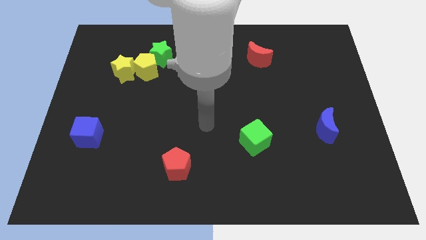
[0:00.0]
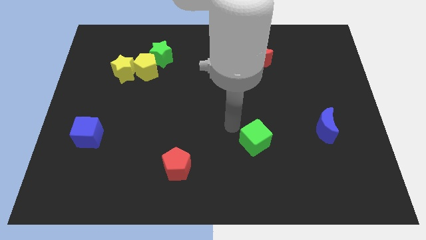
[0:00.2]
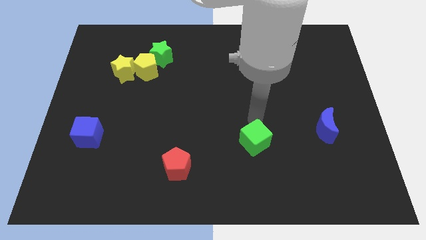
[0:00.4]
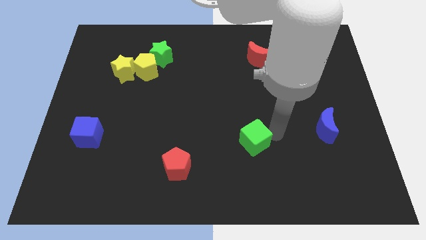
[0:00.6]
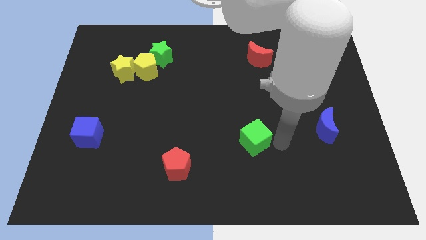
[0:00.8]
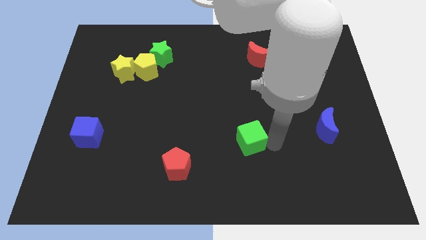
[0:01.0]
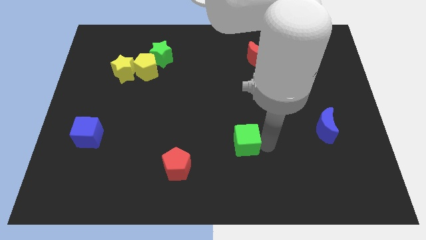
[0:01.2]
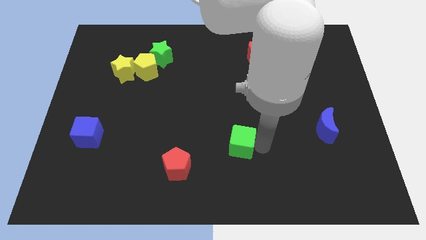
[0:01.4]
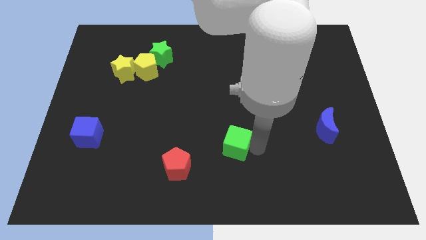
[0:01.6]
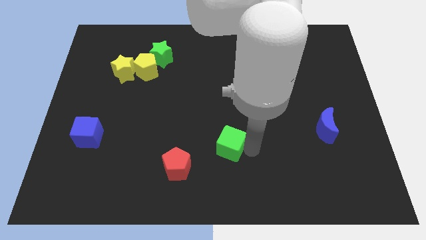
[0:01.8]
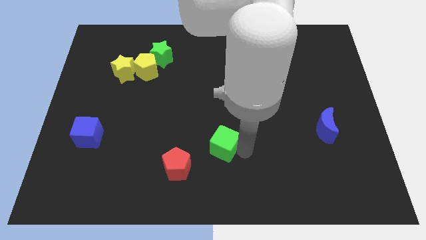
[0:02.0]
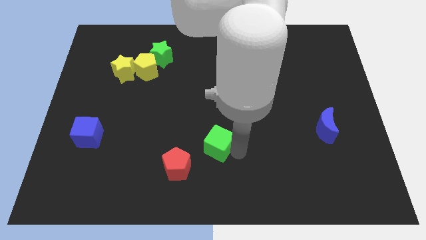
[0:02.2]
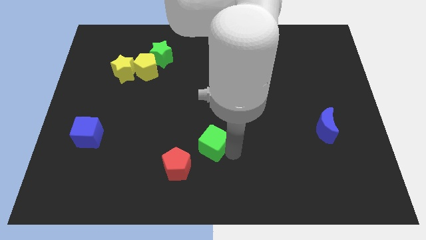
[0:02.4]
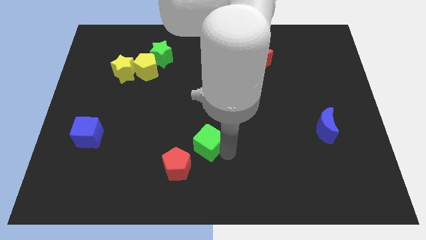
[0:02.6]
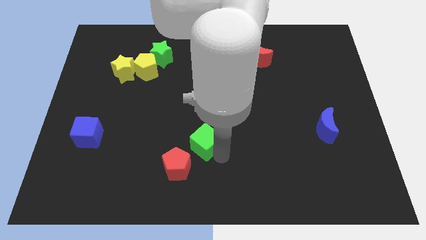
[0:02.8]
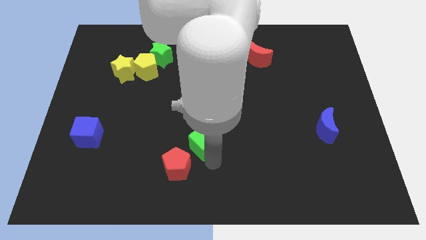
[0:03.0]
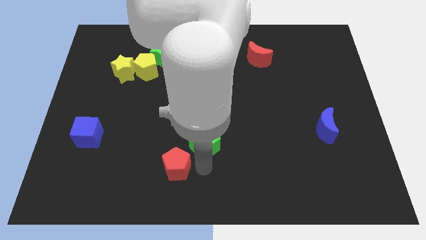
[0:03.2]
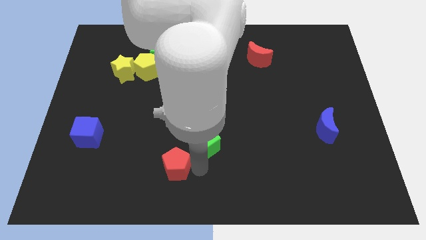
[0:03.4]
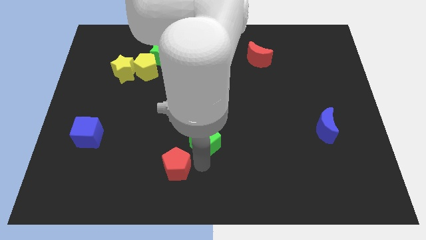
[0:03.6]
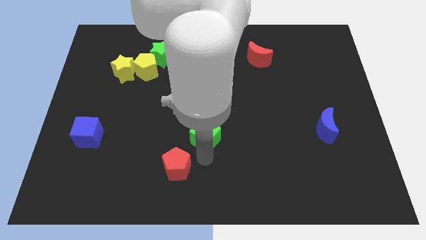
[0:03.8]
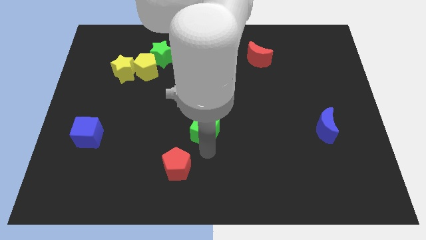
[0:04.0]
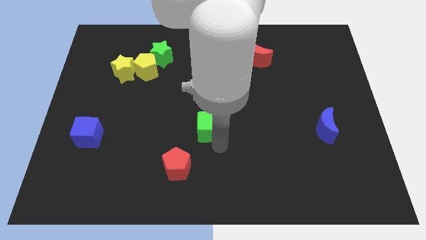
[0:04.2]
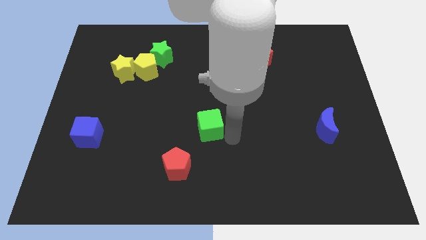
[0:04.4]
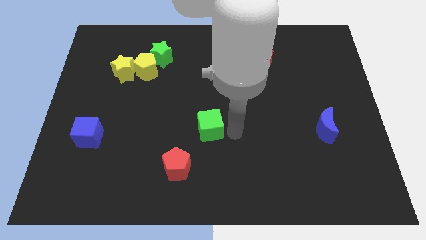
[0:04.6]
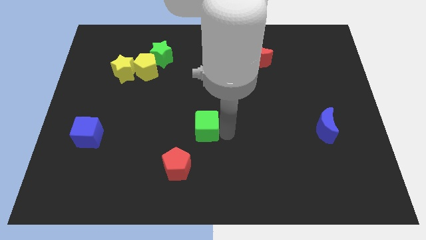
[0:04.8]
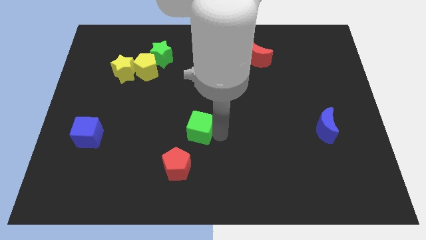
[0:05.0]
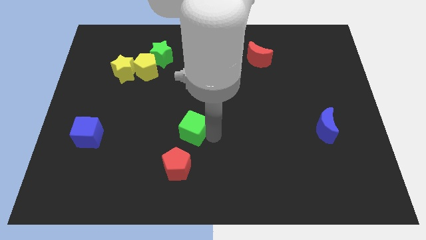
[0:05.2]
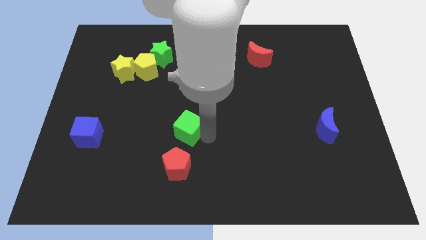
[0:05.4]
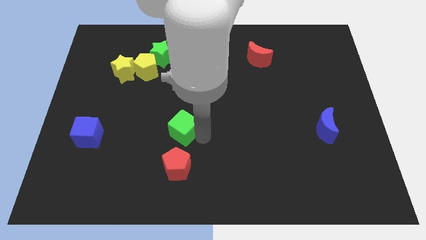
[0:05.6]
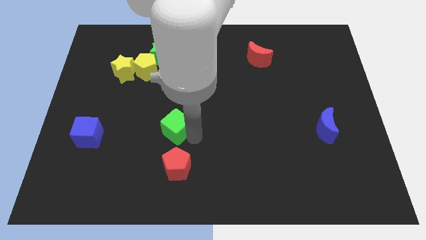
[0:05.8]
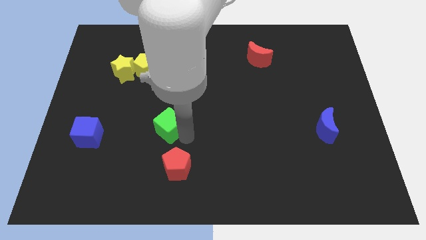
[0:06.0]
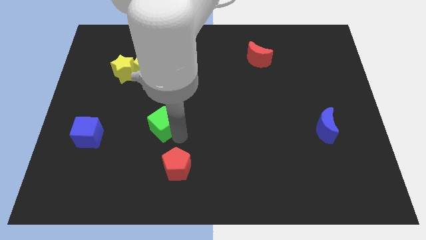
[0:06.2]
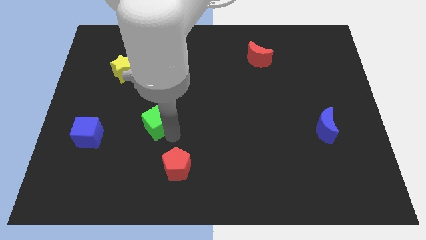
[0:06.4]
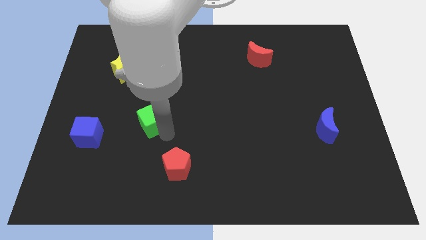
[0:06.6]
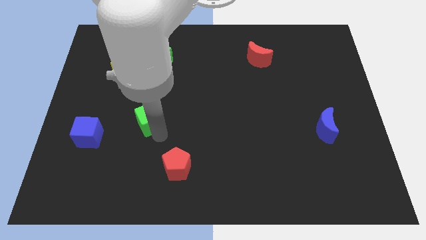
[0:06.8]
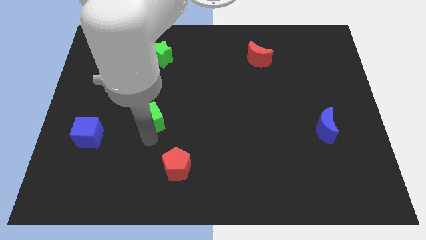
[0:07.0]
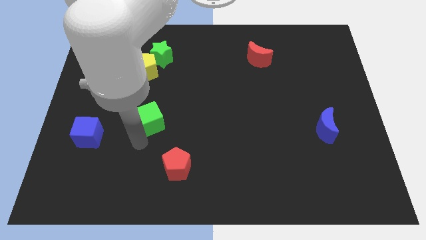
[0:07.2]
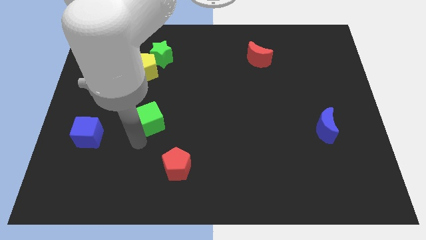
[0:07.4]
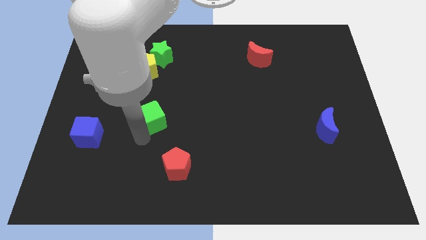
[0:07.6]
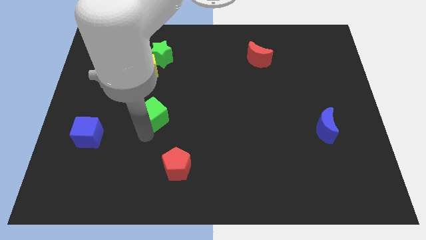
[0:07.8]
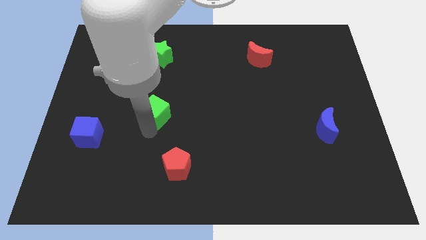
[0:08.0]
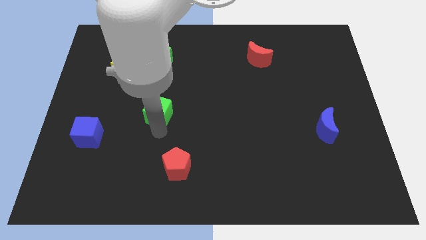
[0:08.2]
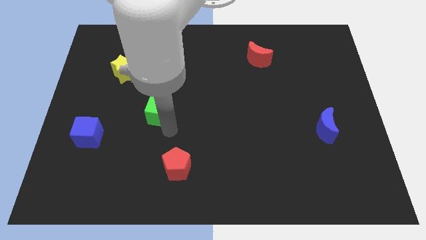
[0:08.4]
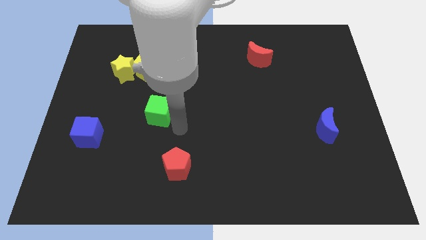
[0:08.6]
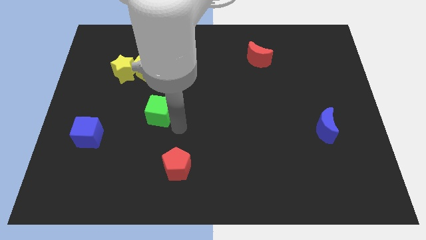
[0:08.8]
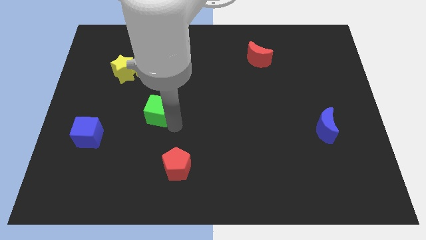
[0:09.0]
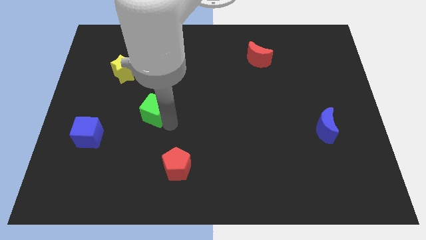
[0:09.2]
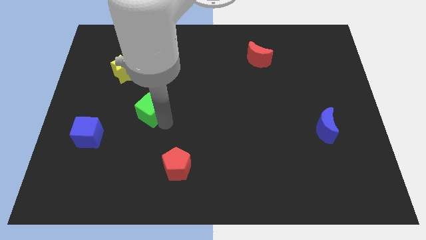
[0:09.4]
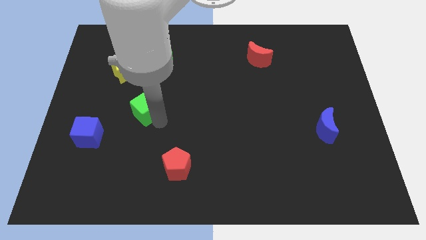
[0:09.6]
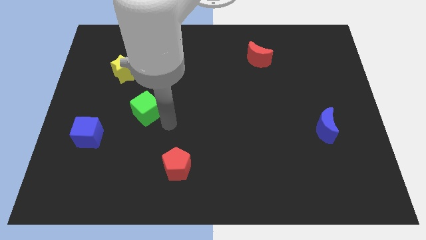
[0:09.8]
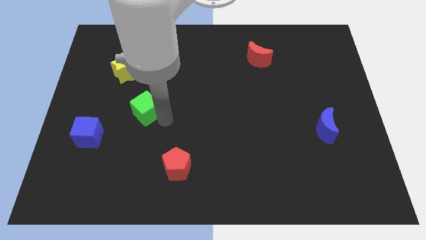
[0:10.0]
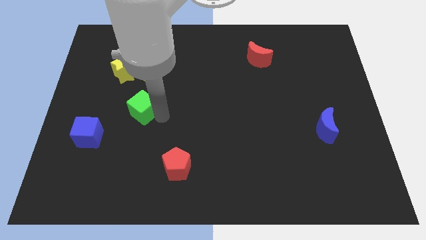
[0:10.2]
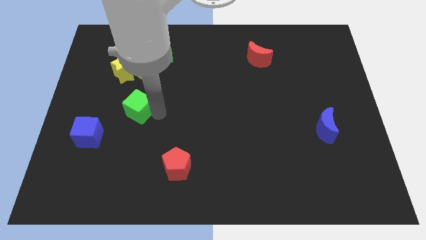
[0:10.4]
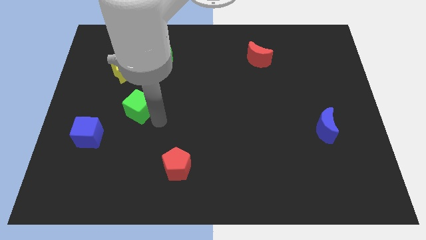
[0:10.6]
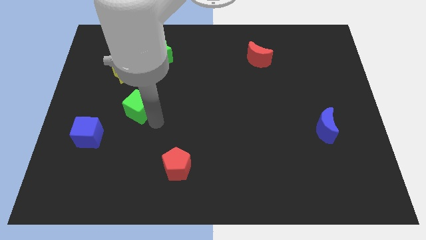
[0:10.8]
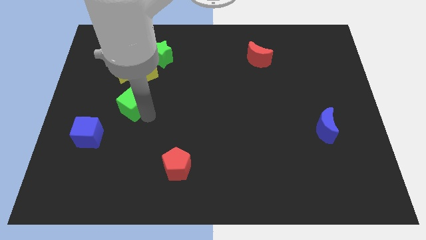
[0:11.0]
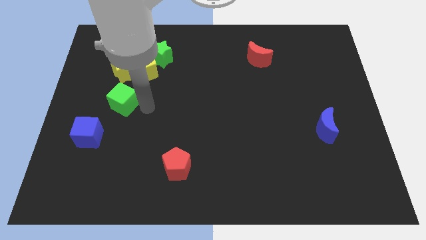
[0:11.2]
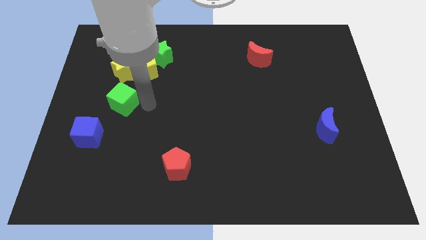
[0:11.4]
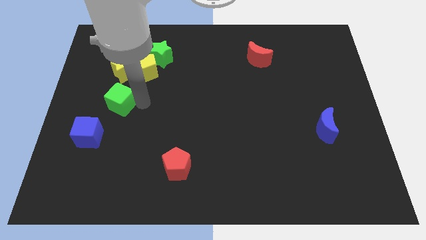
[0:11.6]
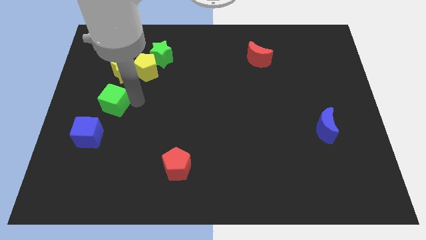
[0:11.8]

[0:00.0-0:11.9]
push the green cube above the blue cube
